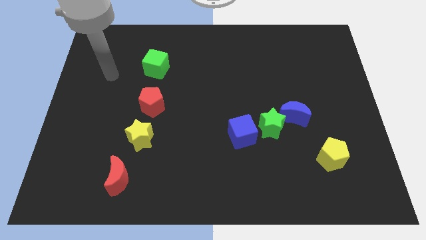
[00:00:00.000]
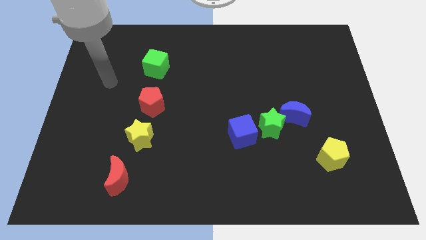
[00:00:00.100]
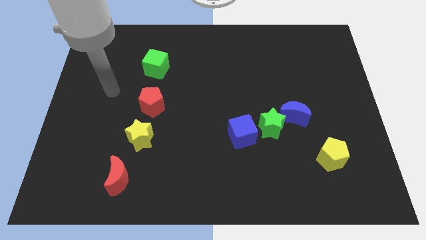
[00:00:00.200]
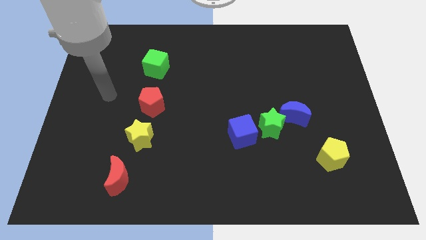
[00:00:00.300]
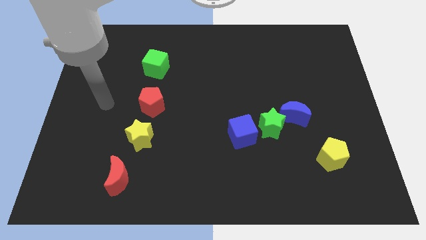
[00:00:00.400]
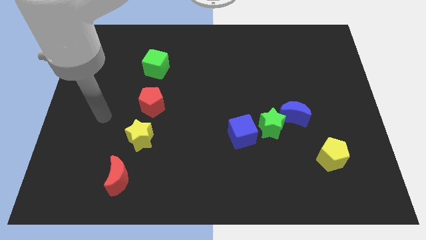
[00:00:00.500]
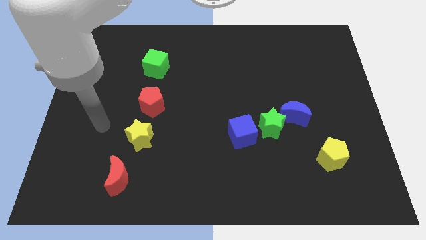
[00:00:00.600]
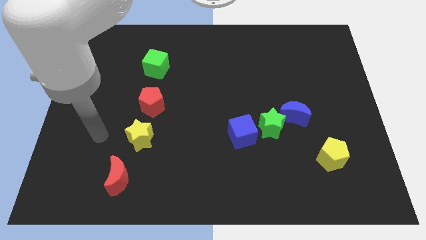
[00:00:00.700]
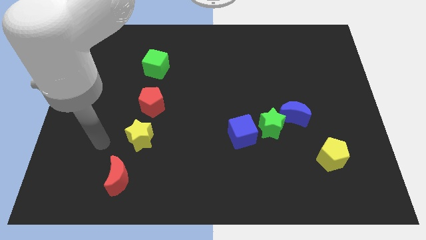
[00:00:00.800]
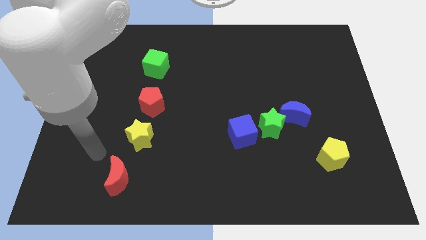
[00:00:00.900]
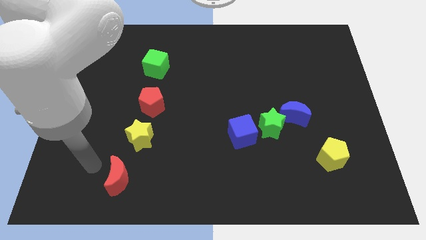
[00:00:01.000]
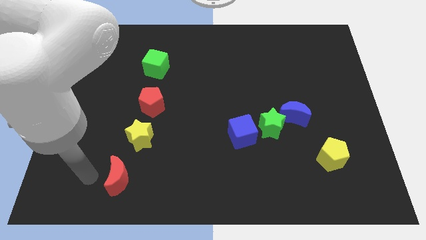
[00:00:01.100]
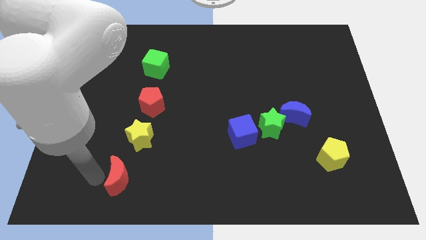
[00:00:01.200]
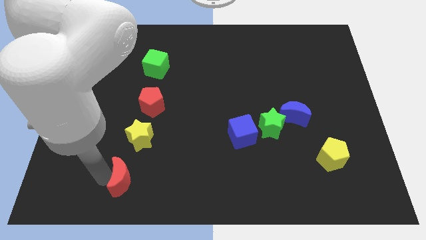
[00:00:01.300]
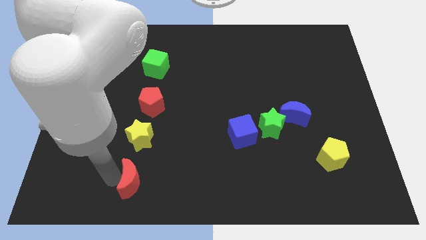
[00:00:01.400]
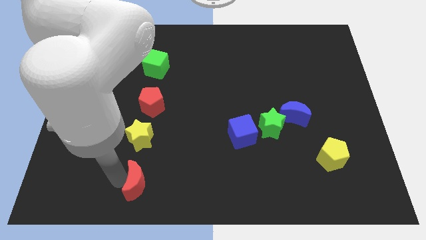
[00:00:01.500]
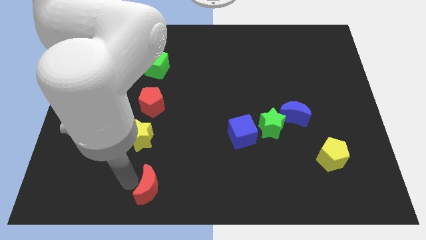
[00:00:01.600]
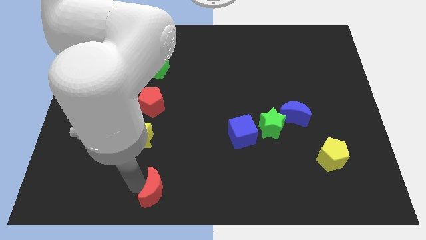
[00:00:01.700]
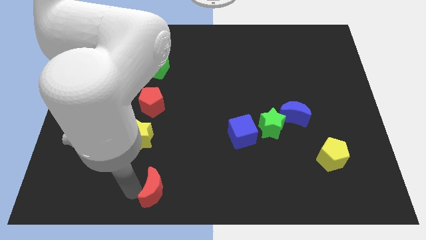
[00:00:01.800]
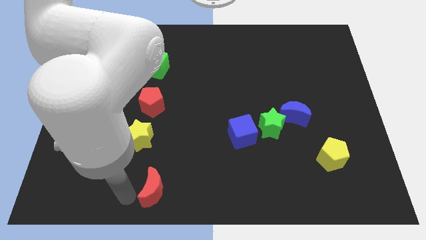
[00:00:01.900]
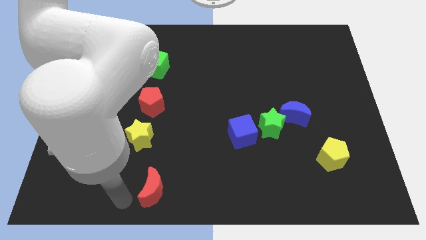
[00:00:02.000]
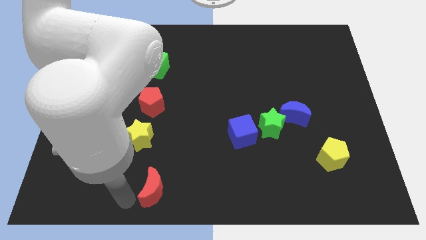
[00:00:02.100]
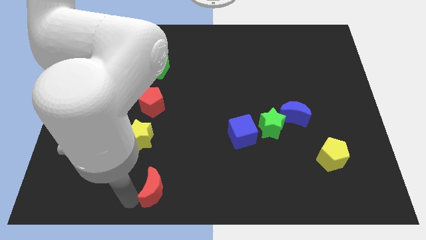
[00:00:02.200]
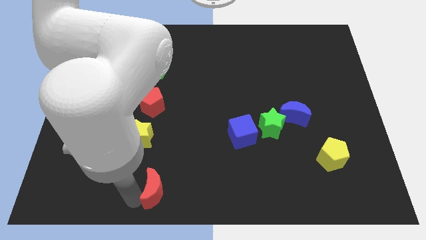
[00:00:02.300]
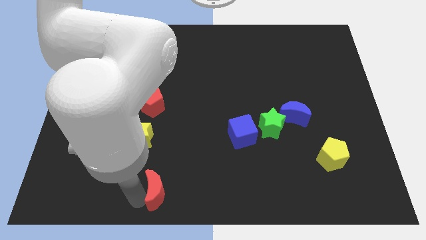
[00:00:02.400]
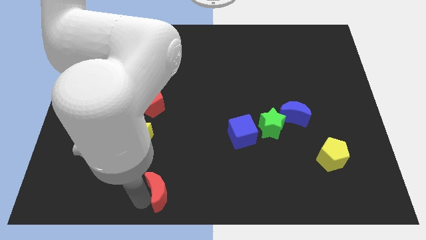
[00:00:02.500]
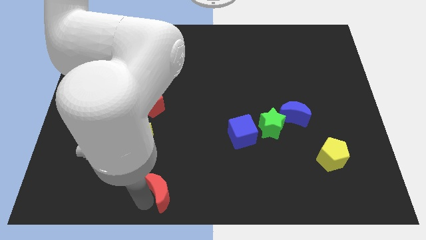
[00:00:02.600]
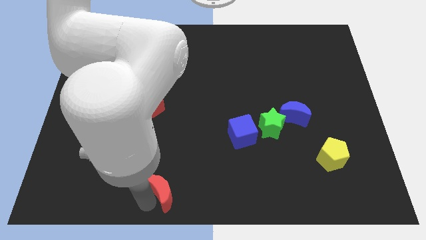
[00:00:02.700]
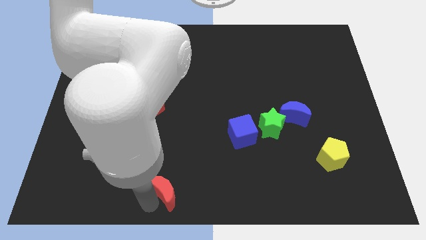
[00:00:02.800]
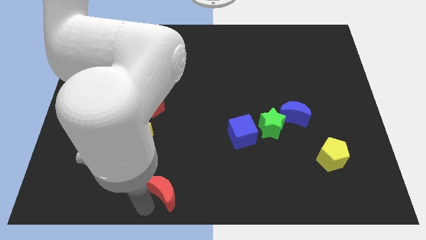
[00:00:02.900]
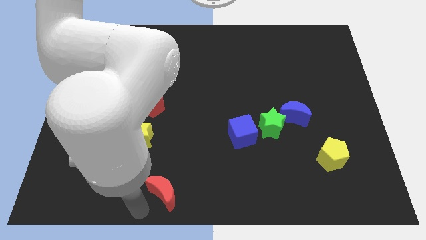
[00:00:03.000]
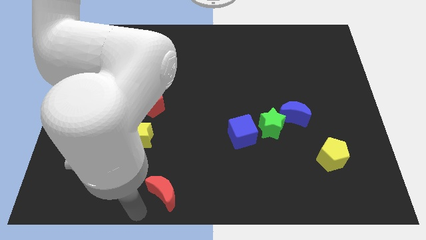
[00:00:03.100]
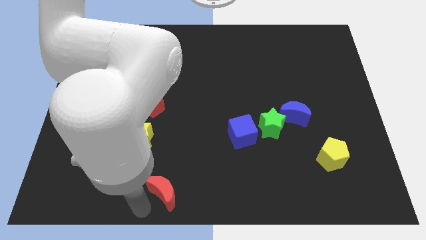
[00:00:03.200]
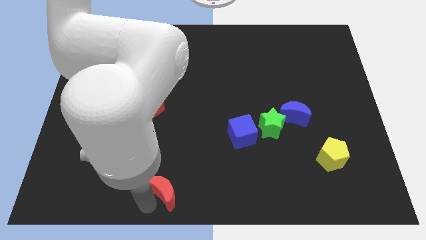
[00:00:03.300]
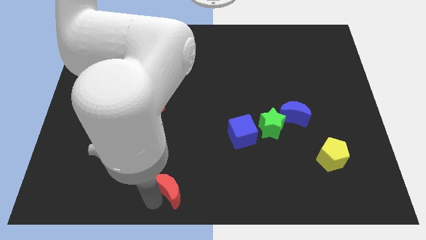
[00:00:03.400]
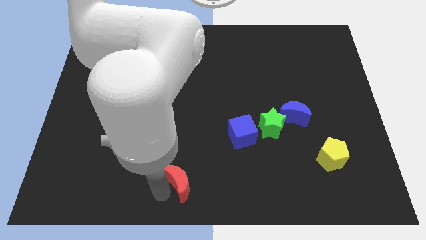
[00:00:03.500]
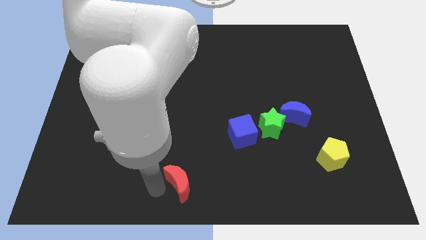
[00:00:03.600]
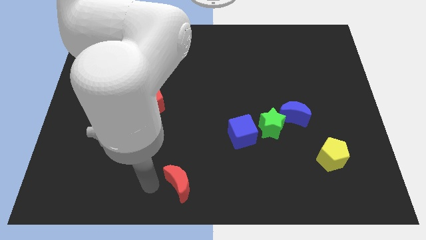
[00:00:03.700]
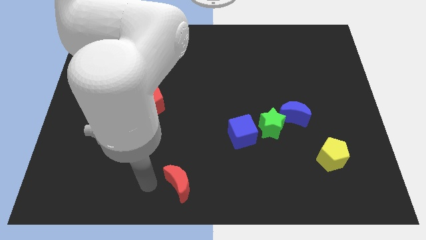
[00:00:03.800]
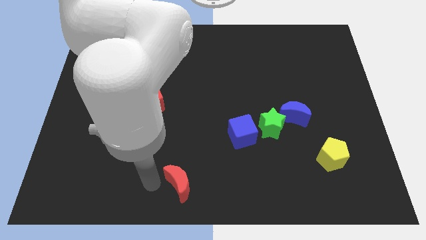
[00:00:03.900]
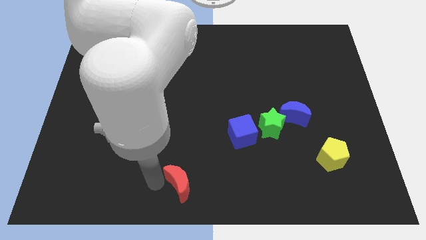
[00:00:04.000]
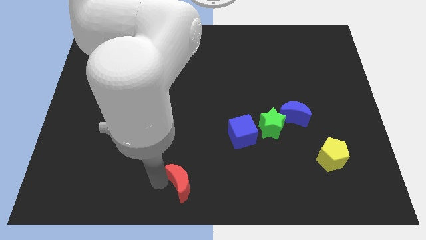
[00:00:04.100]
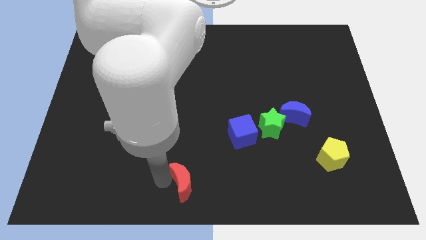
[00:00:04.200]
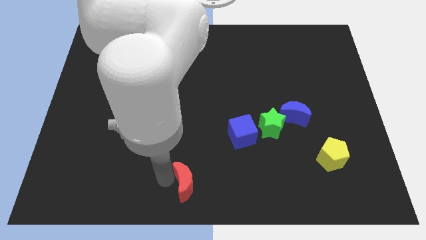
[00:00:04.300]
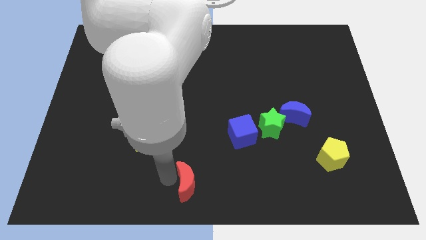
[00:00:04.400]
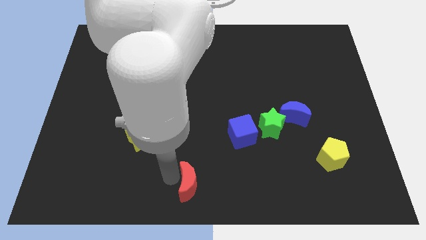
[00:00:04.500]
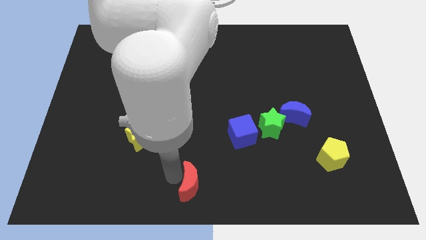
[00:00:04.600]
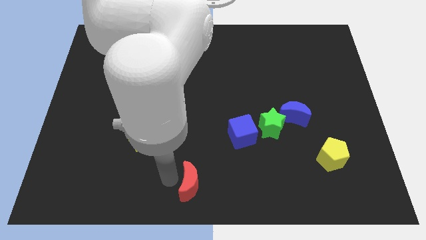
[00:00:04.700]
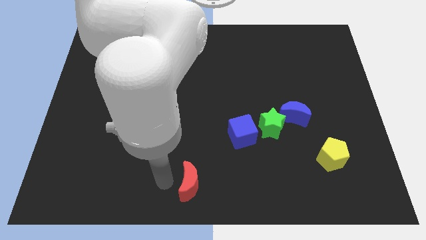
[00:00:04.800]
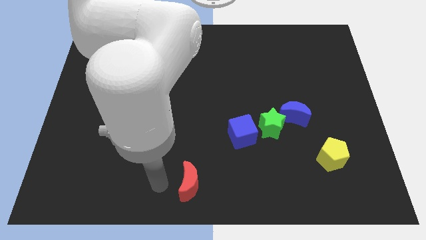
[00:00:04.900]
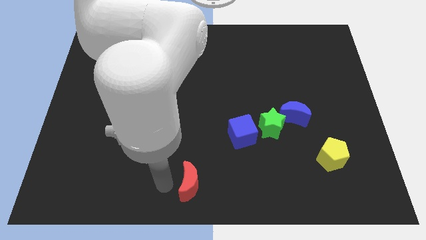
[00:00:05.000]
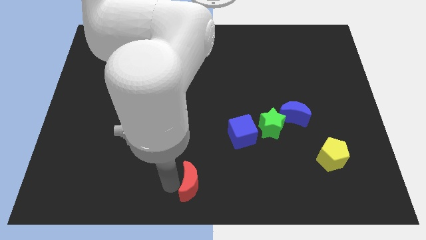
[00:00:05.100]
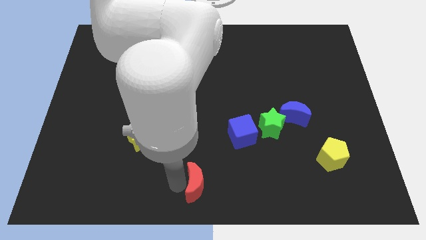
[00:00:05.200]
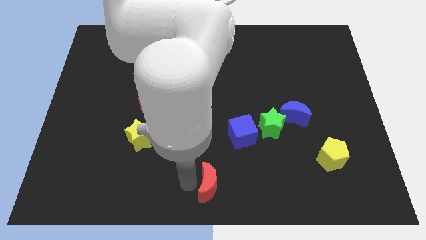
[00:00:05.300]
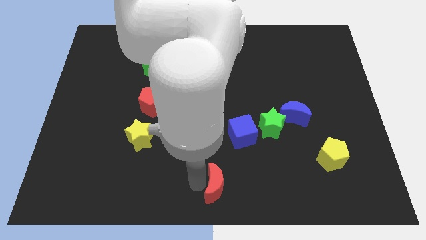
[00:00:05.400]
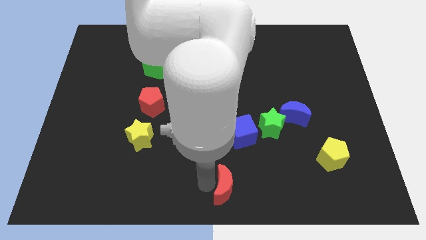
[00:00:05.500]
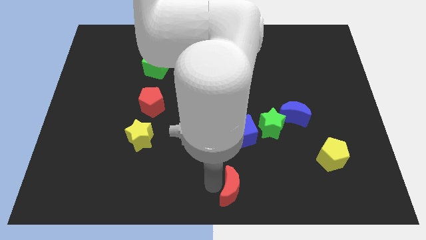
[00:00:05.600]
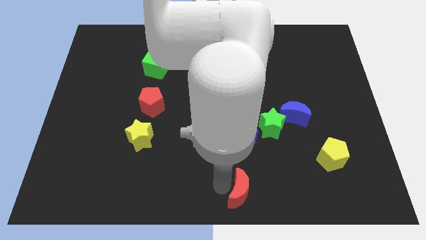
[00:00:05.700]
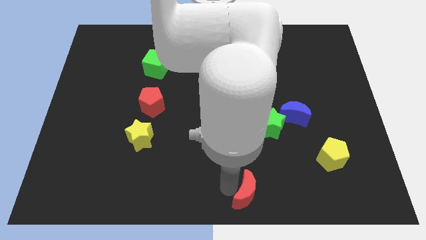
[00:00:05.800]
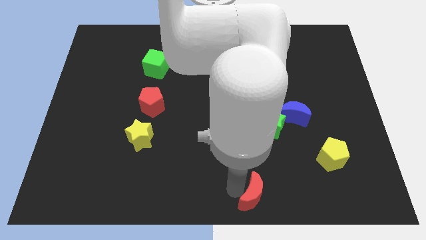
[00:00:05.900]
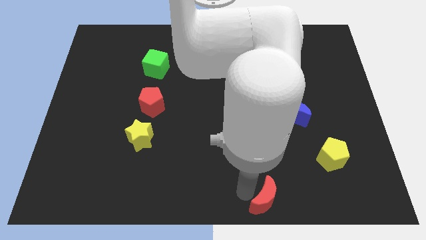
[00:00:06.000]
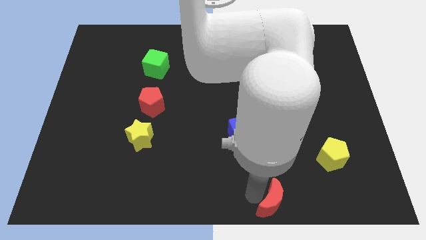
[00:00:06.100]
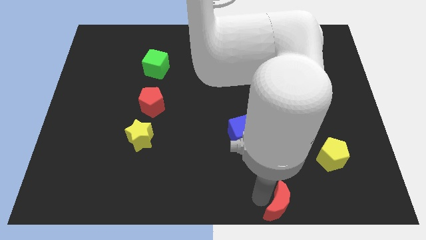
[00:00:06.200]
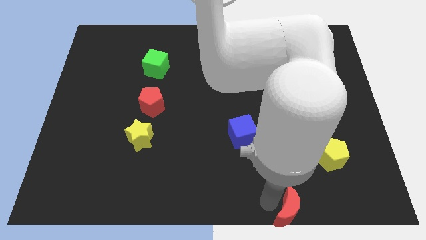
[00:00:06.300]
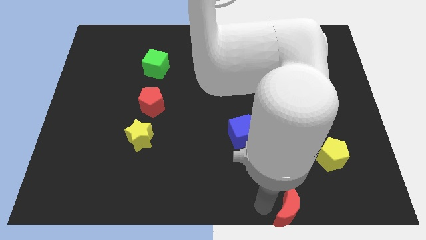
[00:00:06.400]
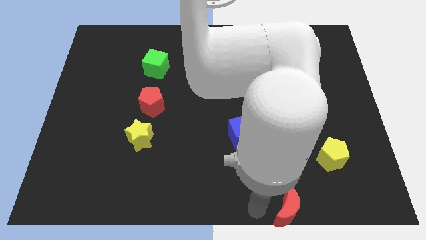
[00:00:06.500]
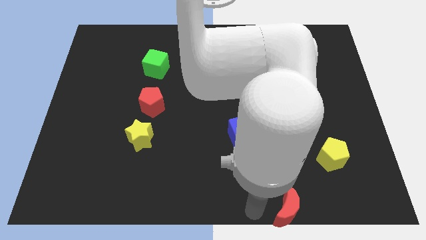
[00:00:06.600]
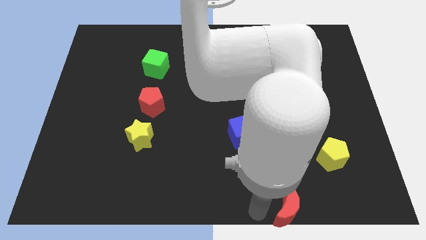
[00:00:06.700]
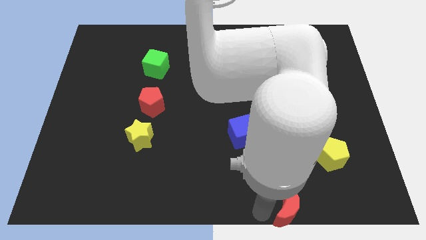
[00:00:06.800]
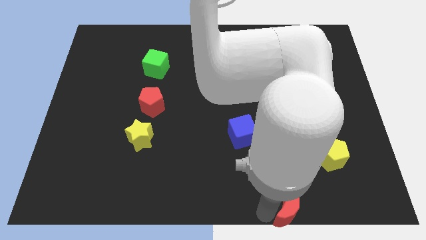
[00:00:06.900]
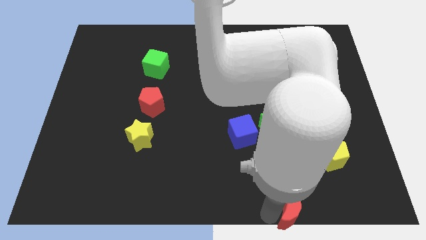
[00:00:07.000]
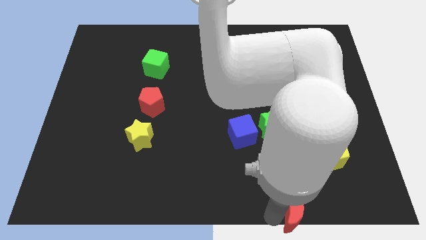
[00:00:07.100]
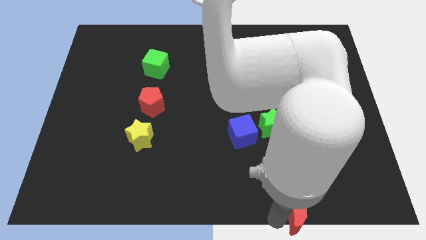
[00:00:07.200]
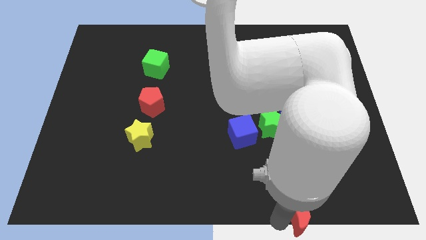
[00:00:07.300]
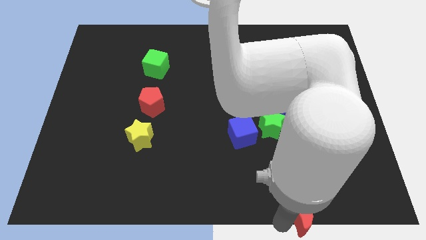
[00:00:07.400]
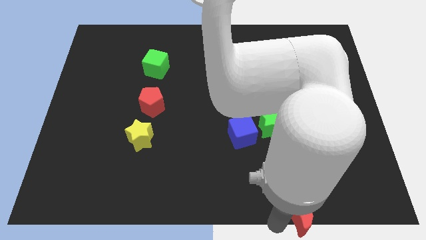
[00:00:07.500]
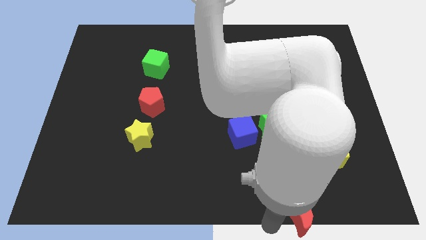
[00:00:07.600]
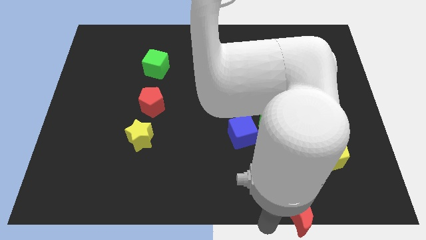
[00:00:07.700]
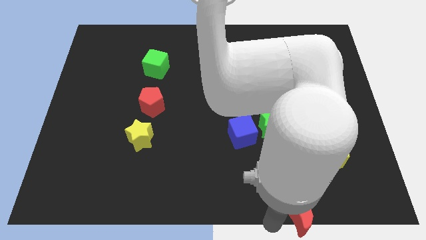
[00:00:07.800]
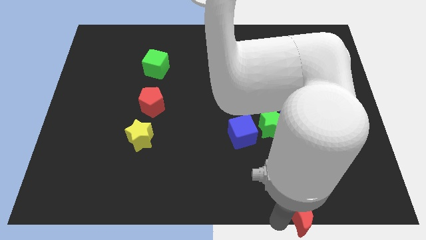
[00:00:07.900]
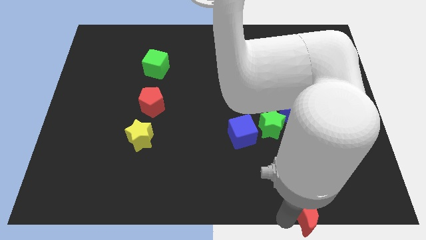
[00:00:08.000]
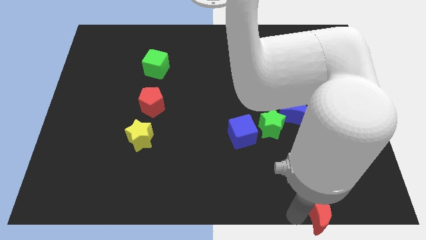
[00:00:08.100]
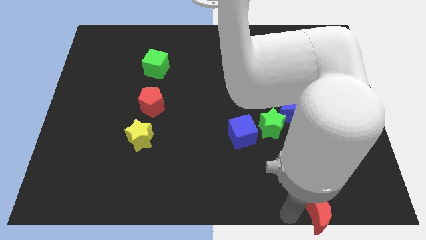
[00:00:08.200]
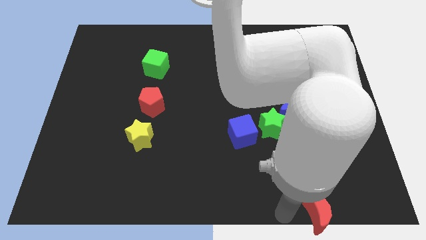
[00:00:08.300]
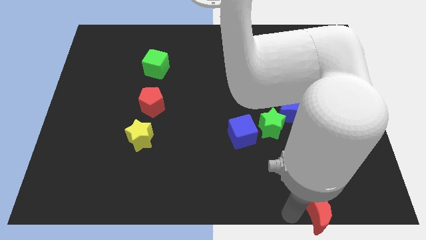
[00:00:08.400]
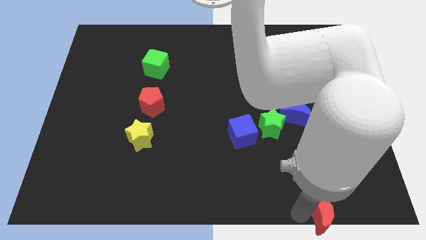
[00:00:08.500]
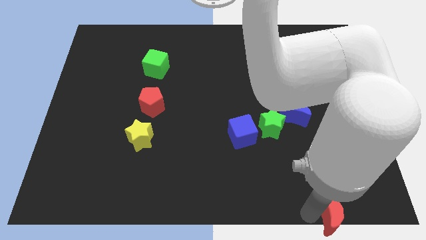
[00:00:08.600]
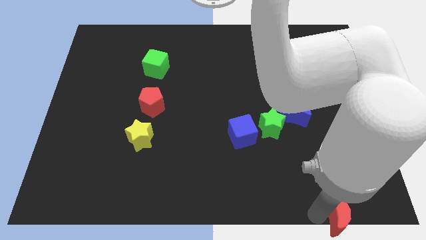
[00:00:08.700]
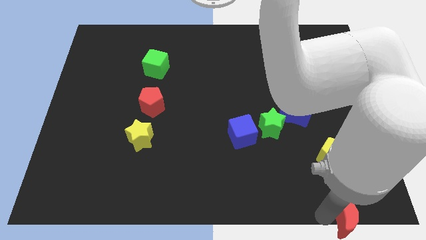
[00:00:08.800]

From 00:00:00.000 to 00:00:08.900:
push the red moon to the bottom right corner
